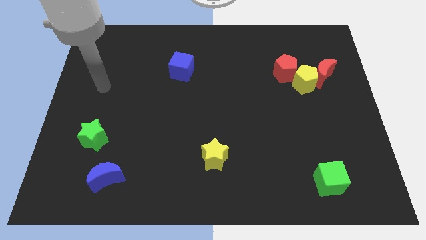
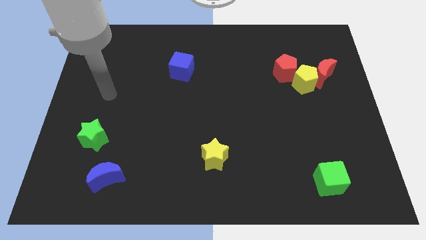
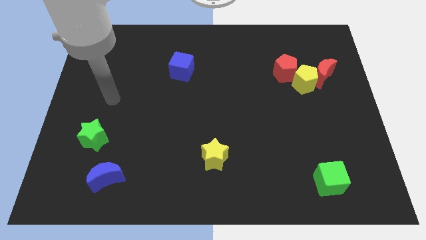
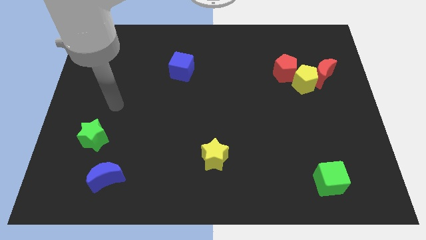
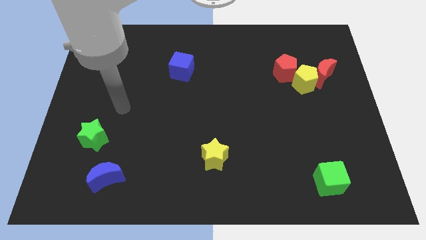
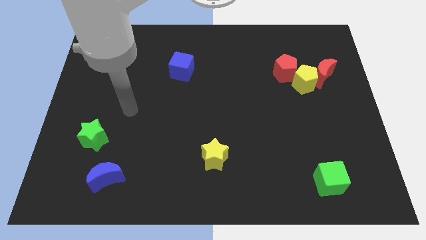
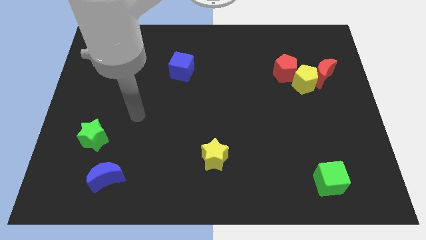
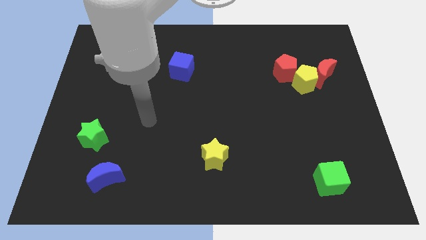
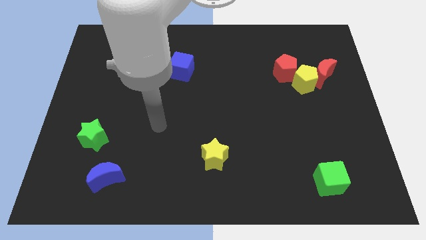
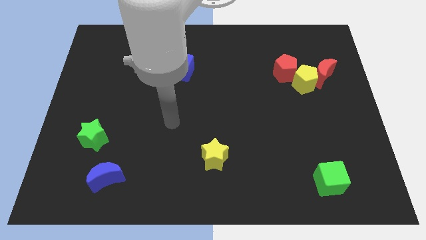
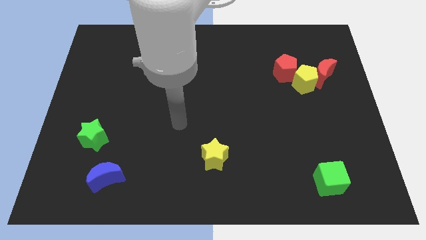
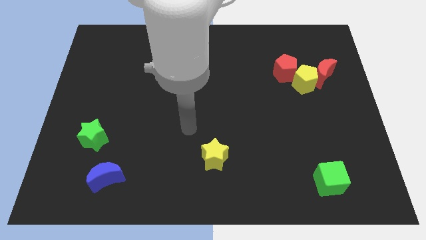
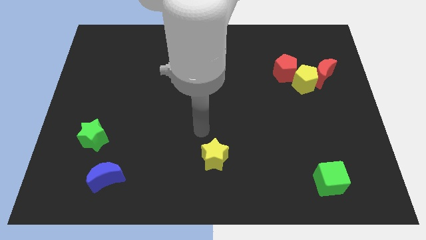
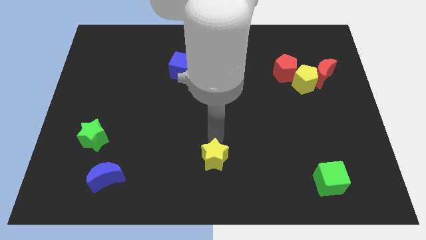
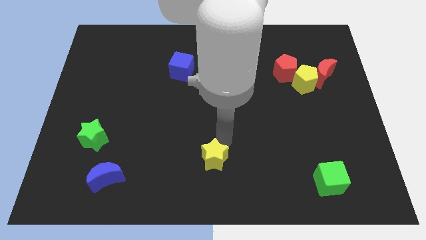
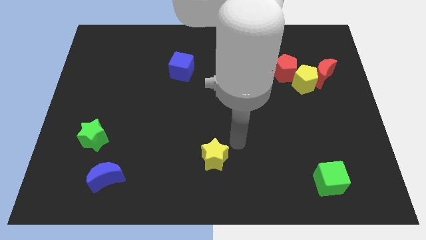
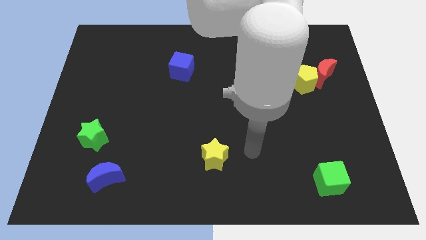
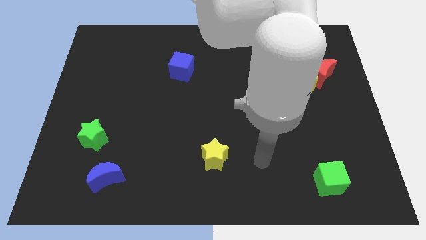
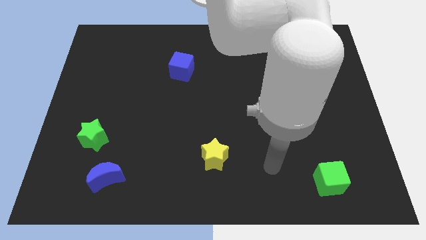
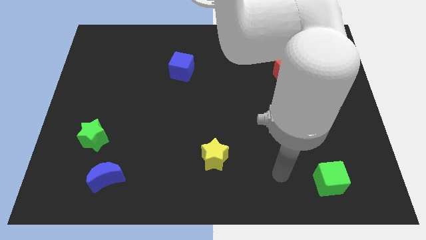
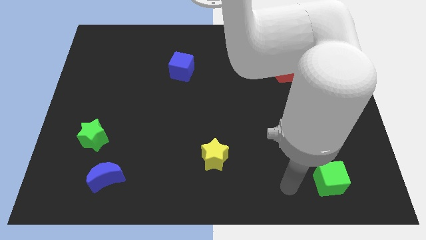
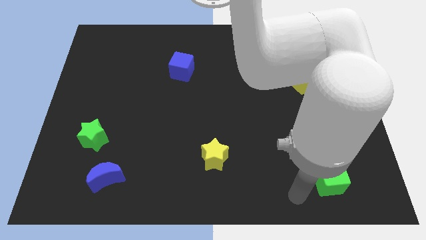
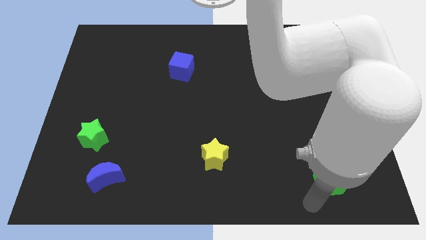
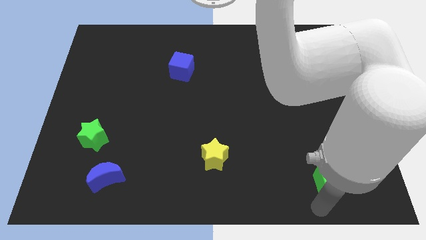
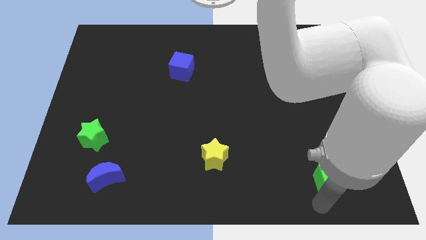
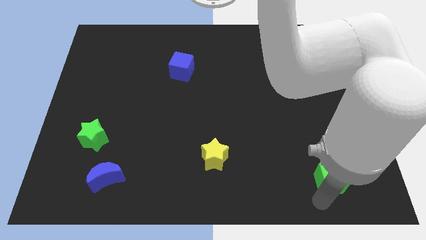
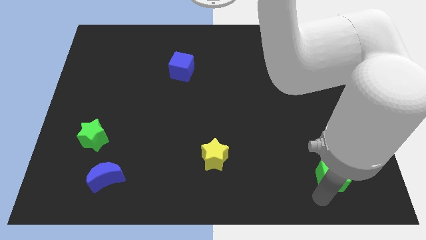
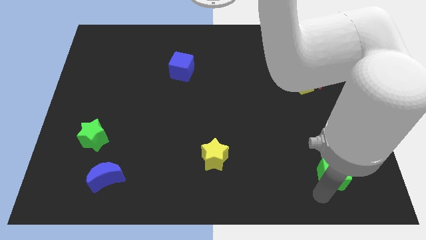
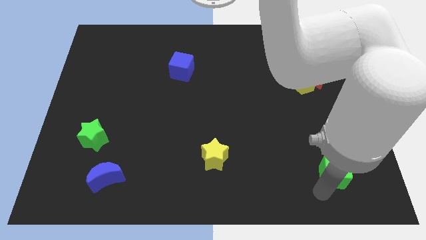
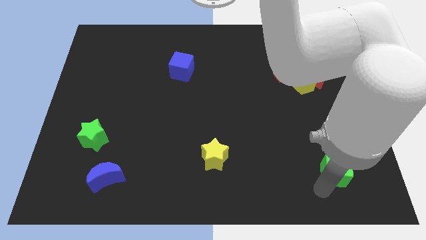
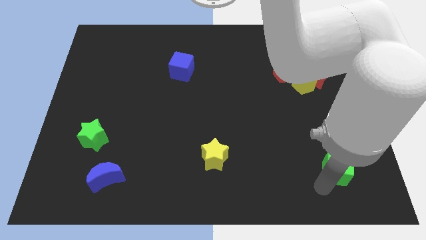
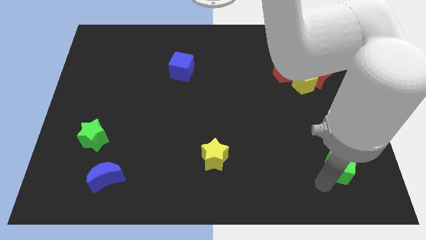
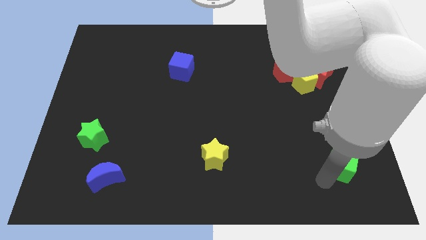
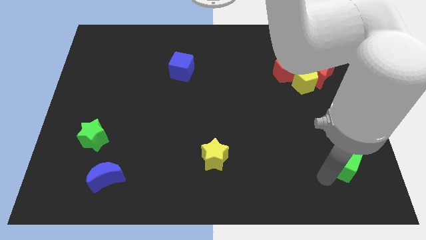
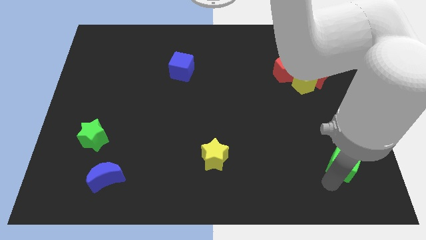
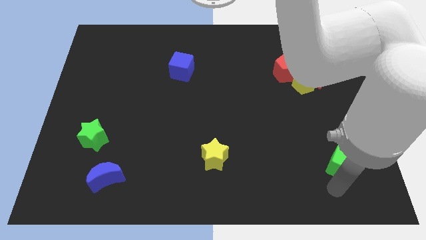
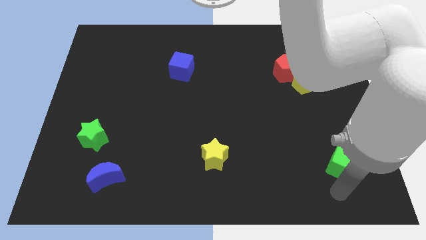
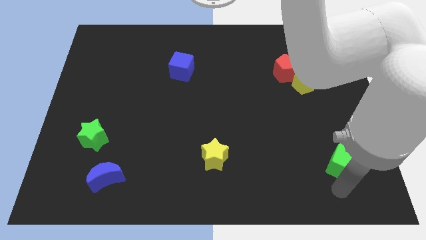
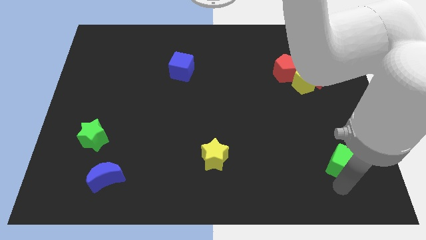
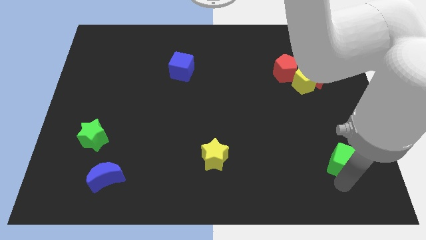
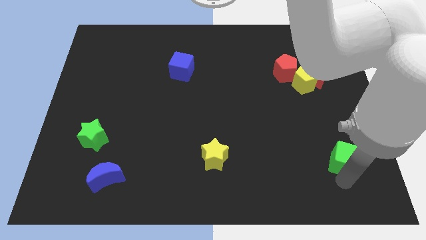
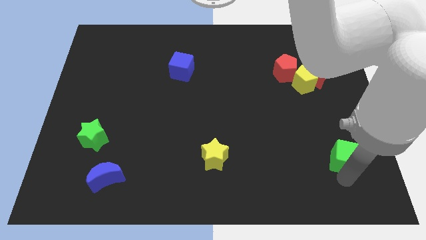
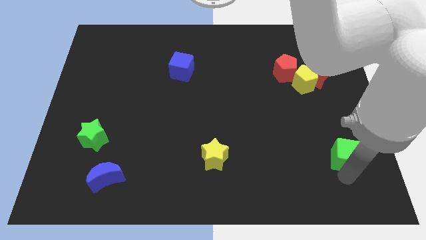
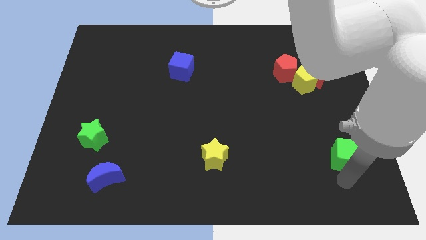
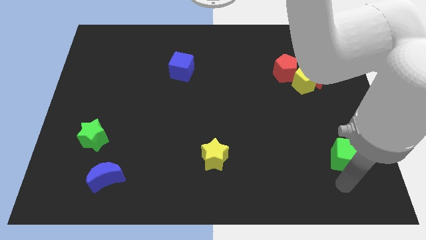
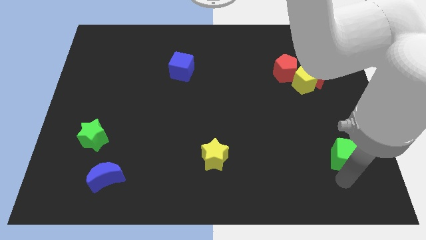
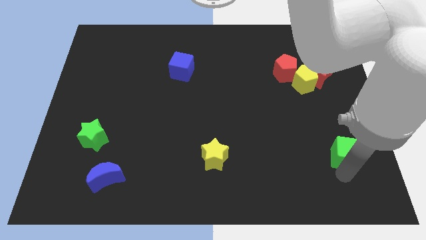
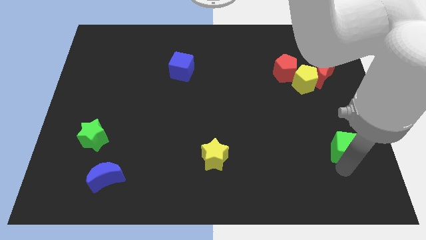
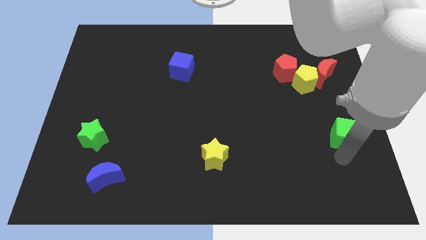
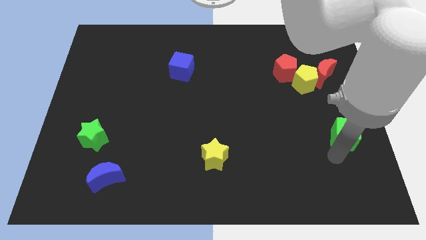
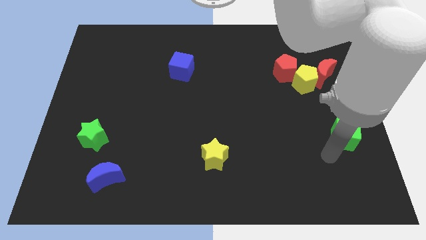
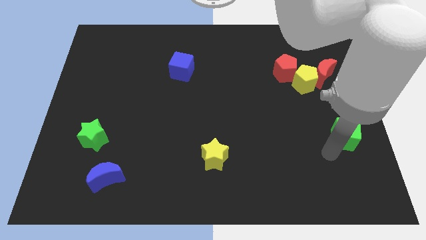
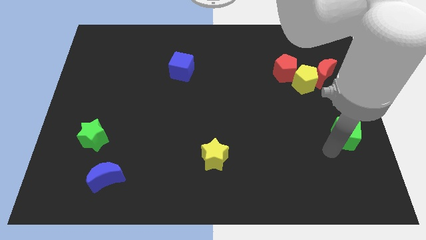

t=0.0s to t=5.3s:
slide the green cube to the center right

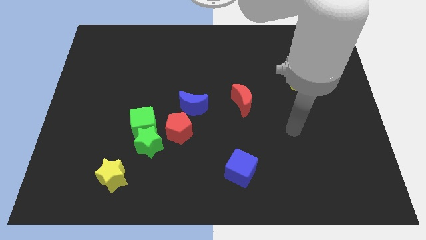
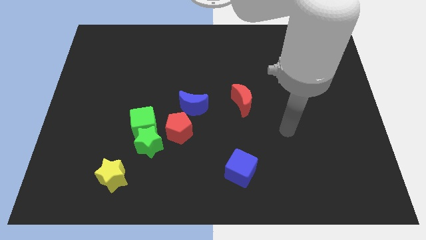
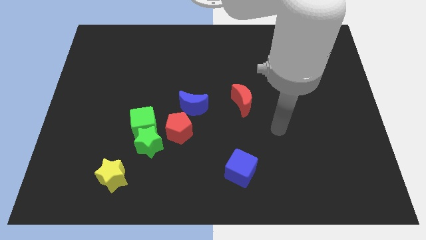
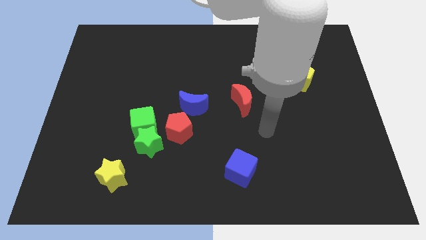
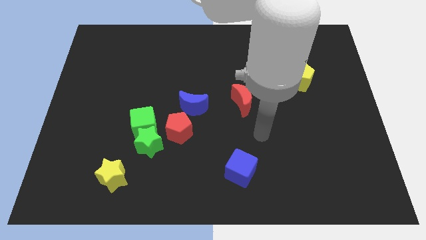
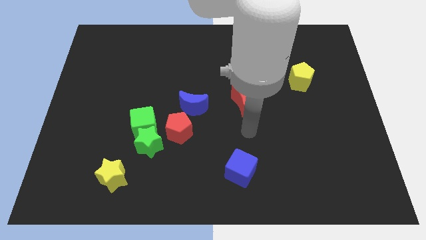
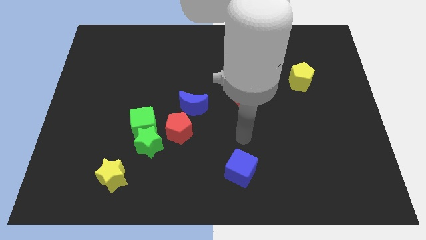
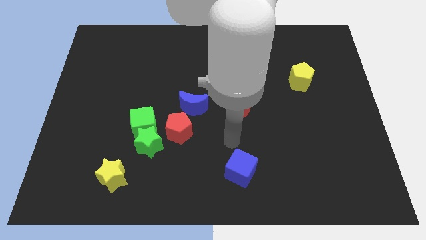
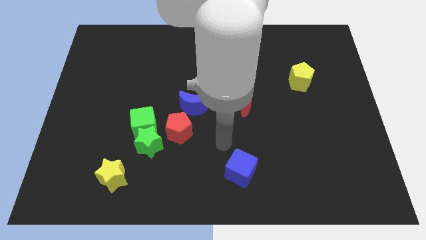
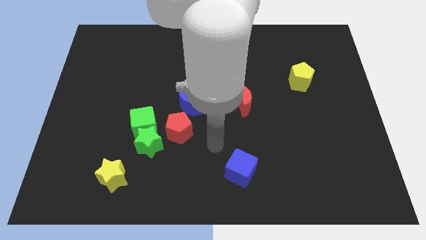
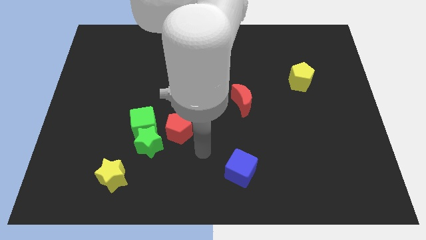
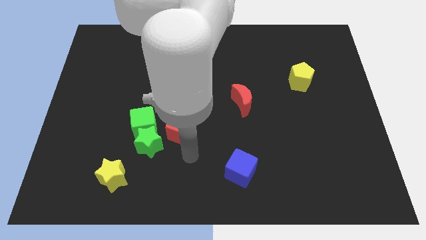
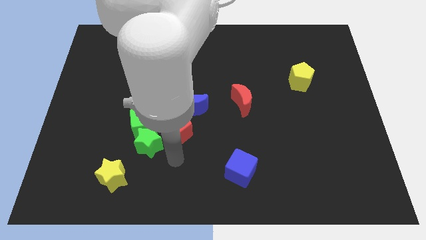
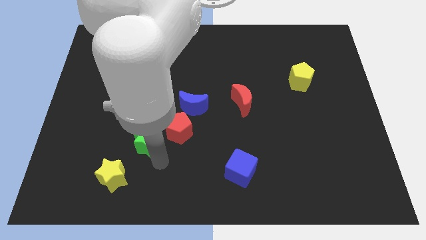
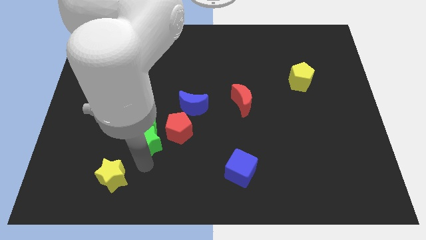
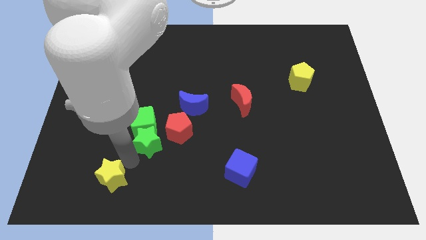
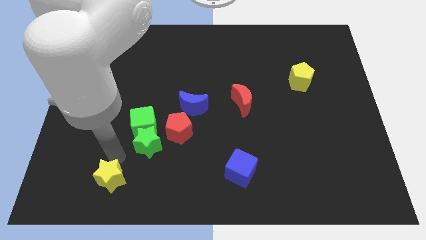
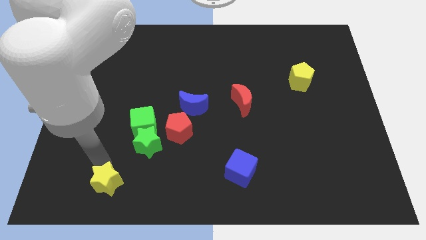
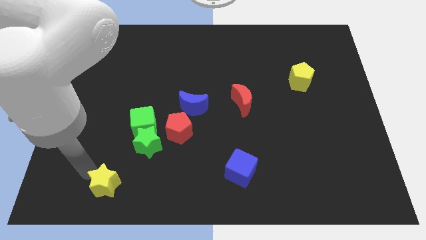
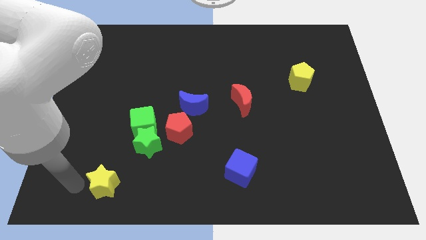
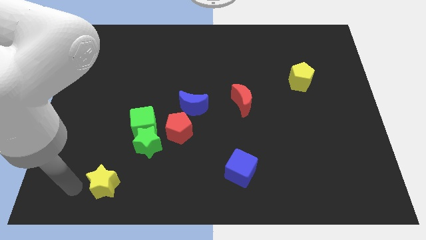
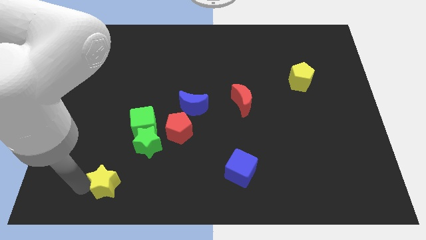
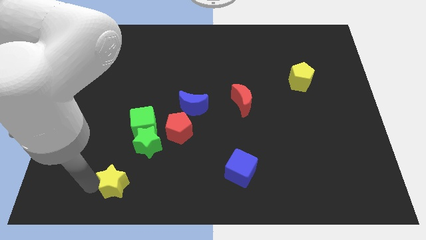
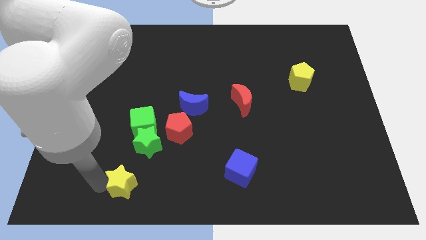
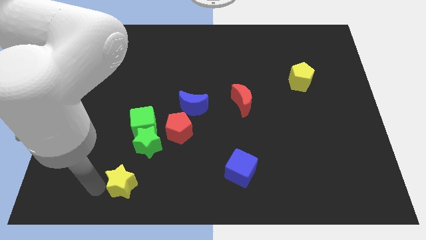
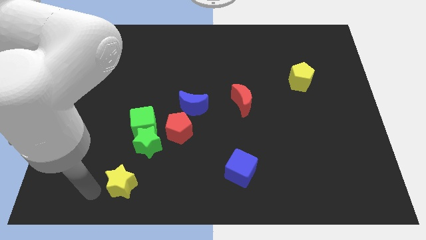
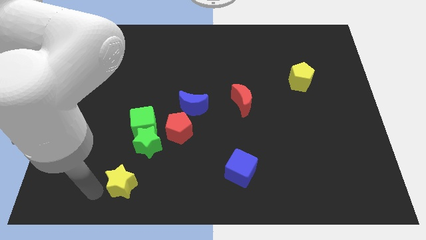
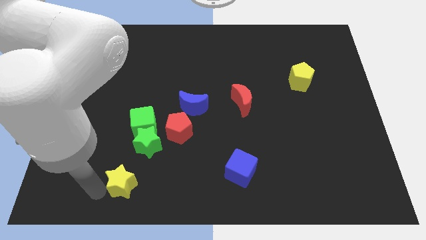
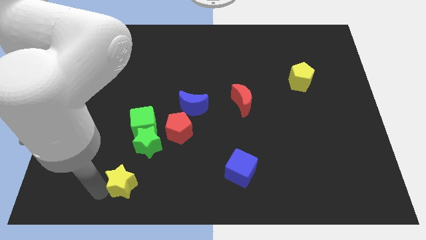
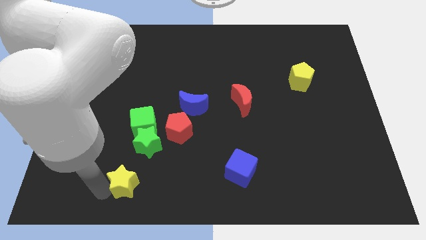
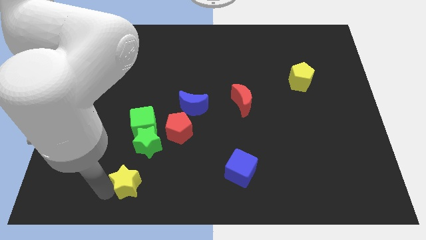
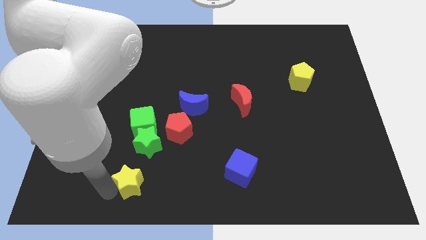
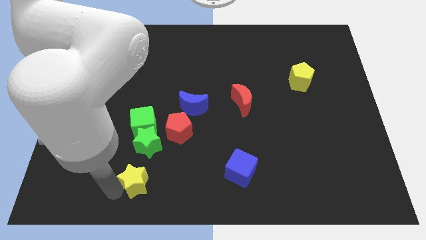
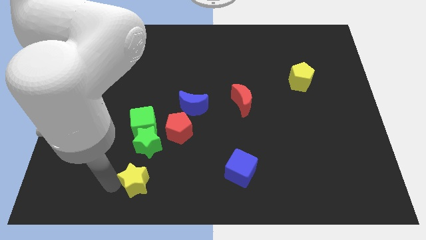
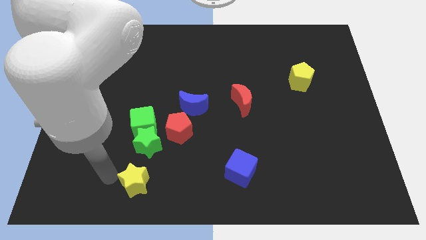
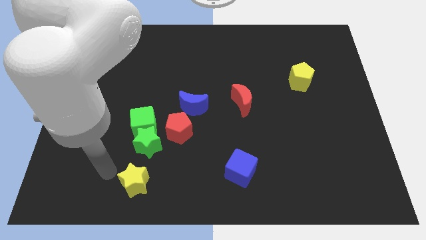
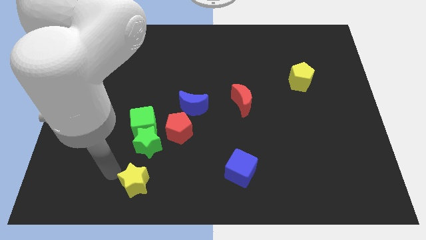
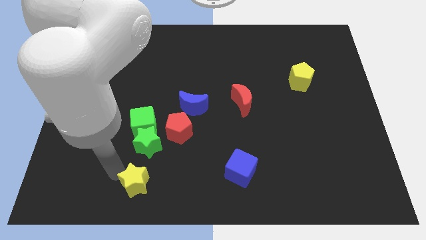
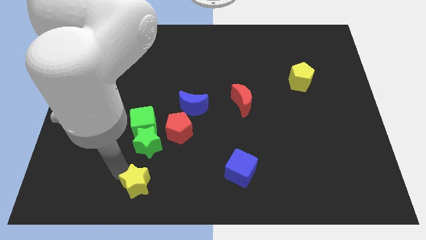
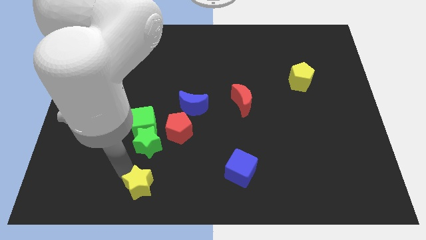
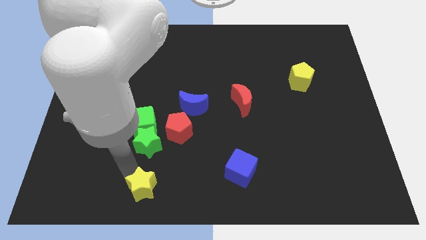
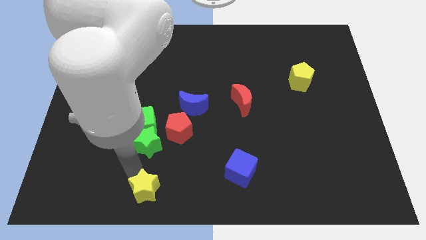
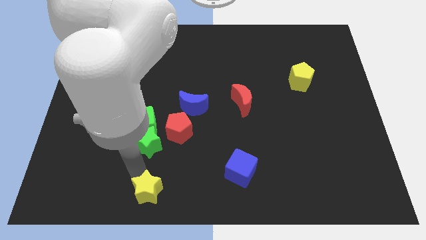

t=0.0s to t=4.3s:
slide the yellow star to the bottom side
